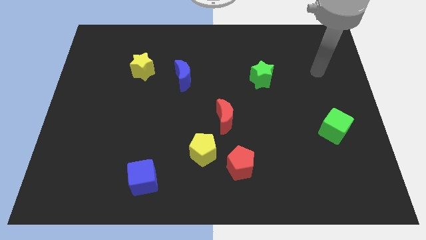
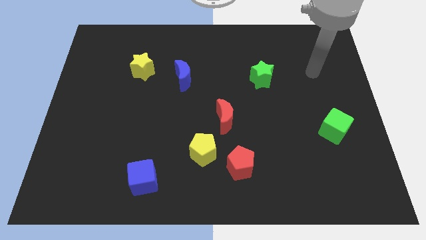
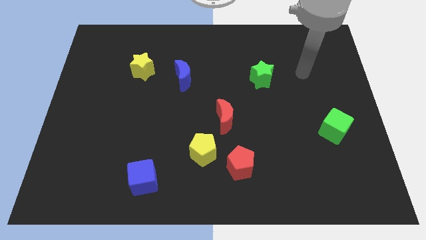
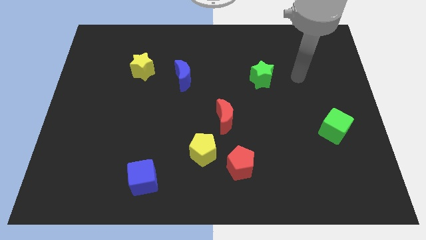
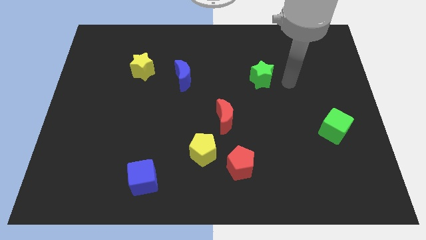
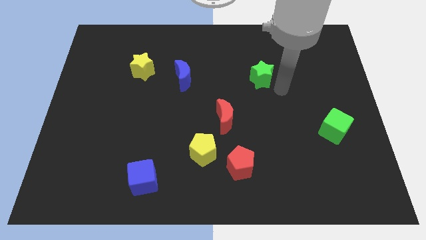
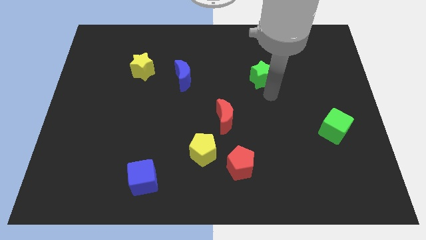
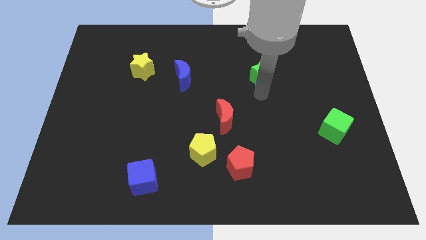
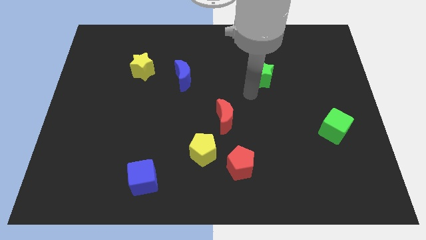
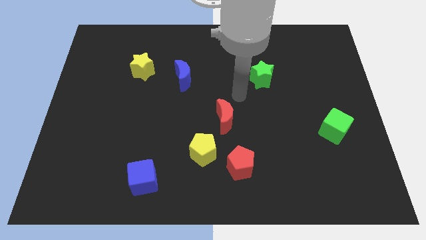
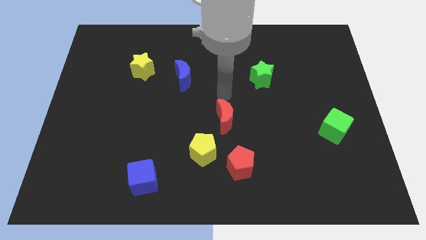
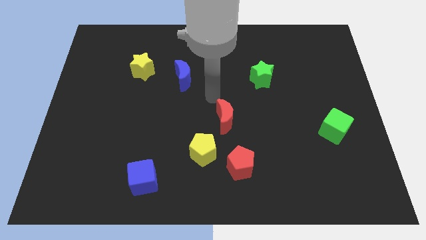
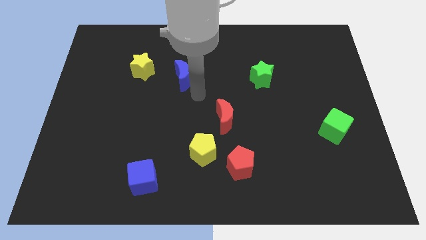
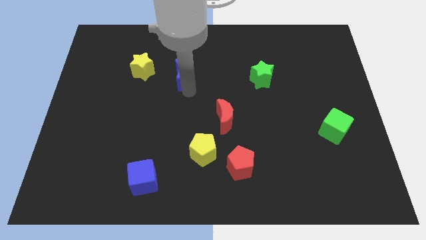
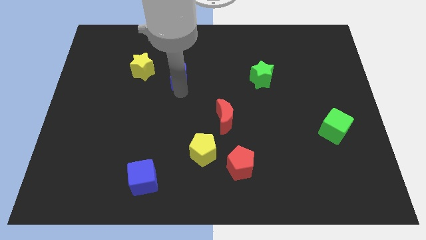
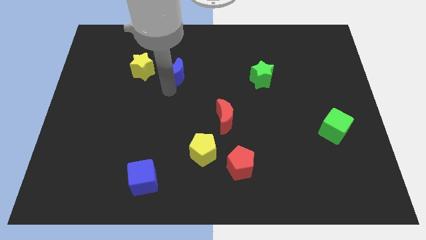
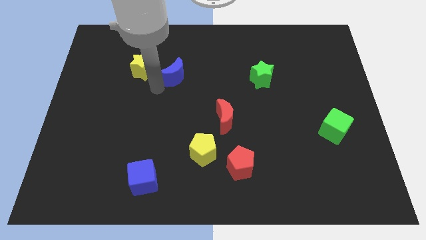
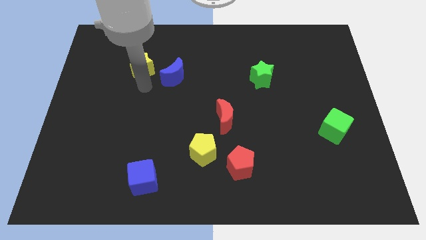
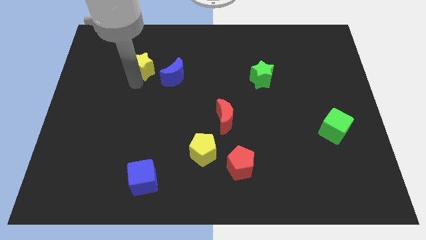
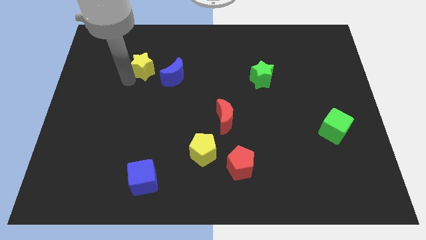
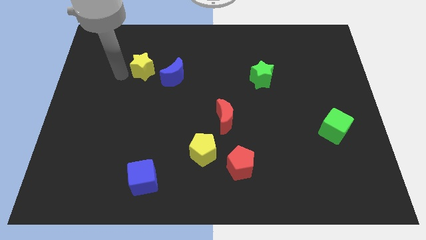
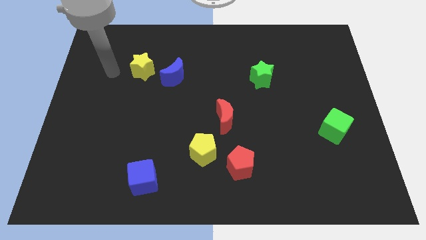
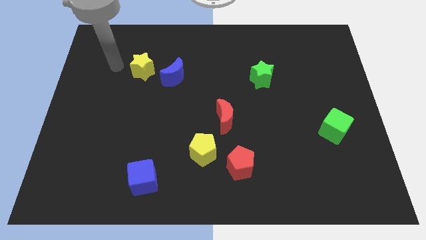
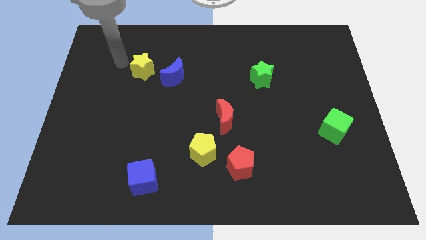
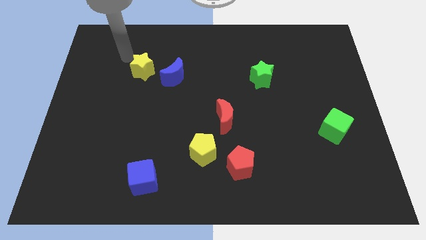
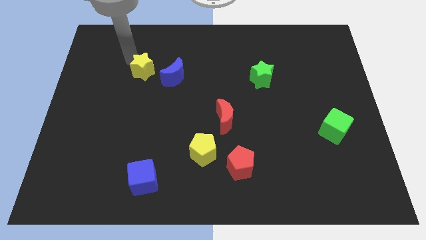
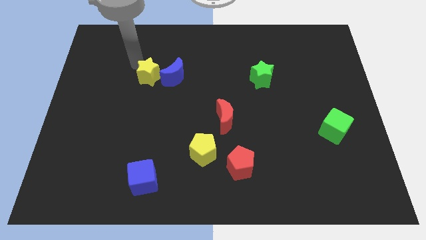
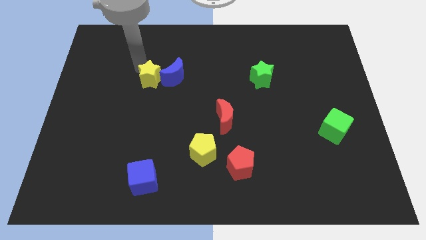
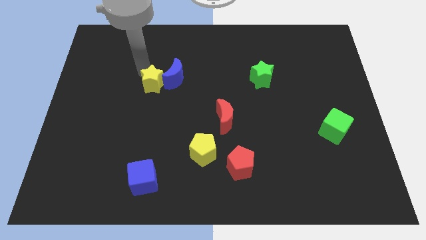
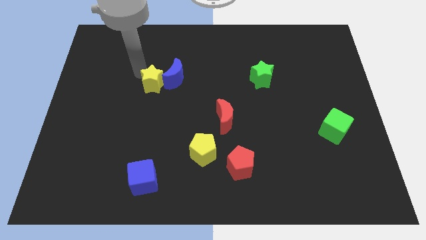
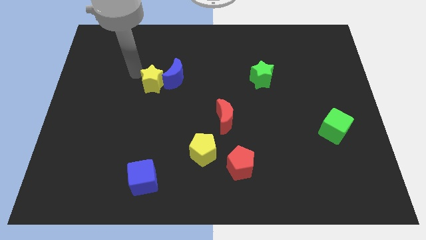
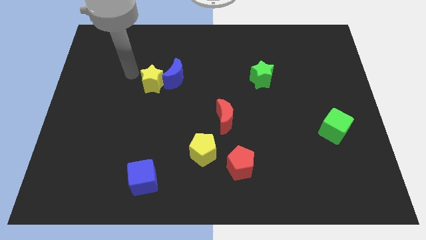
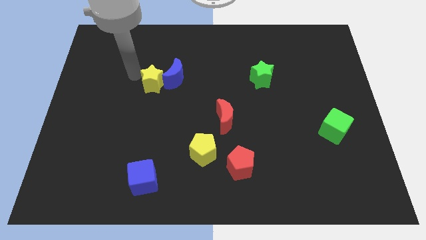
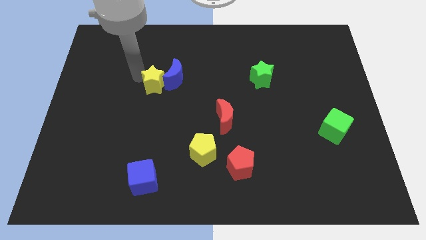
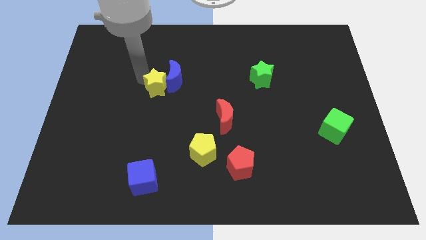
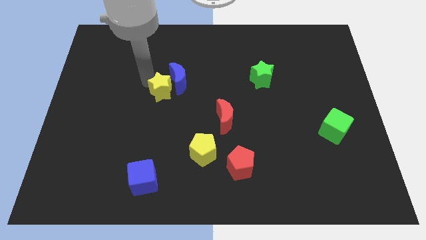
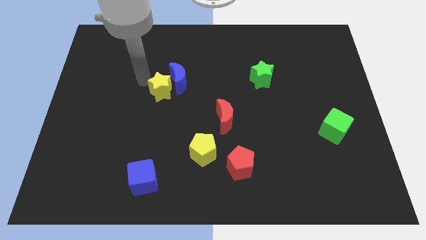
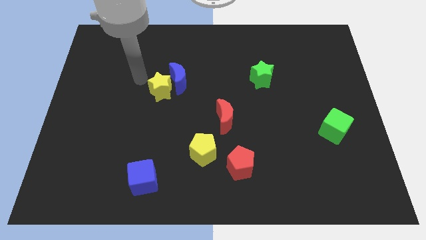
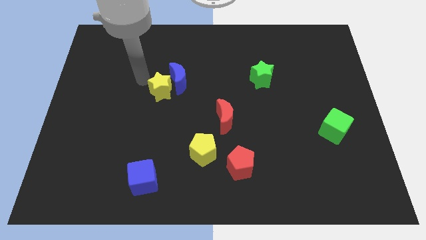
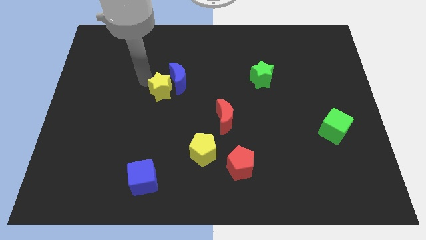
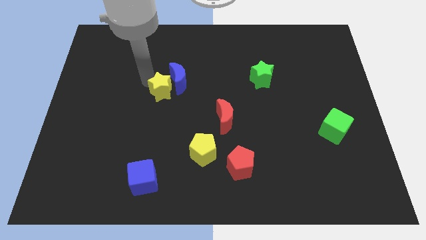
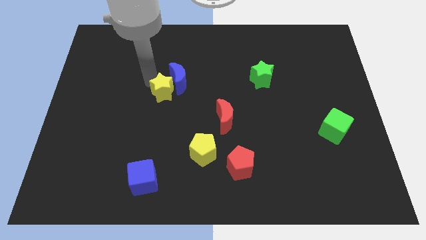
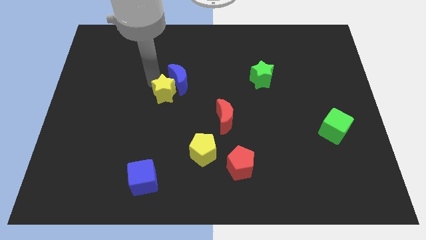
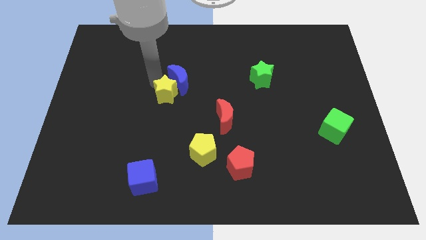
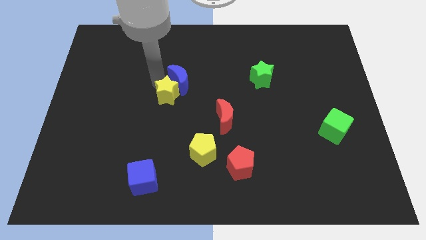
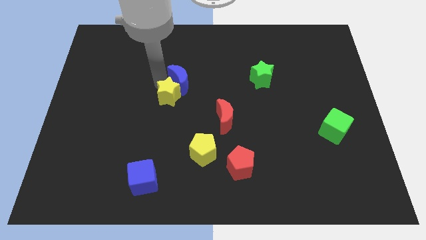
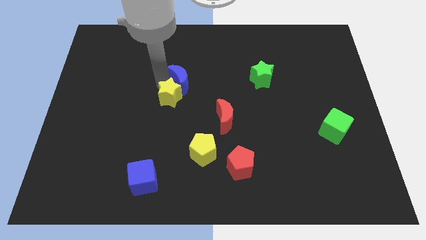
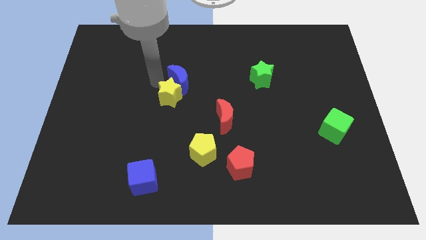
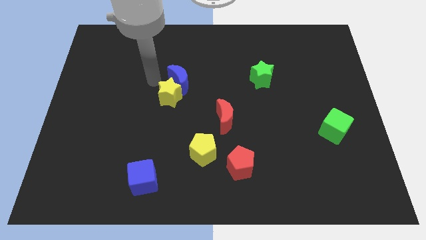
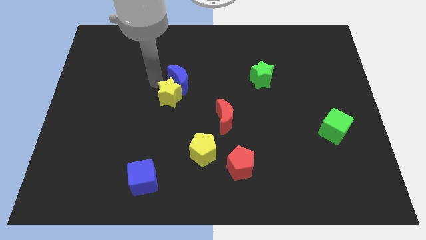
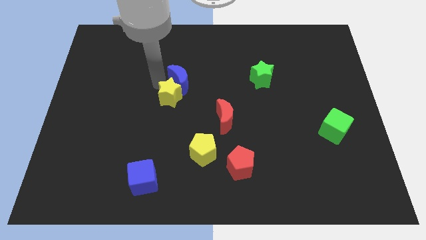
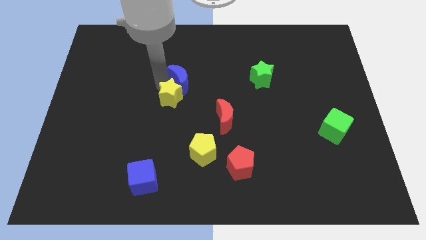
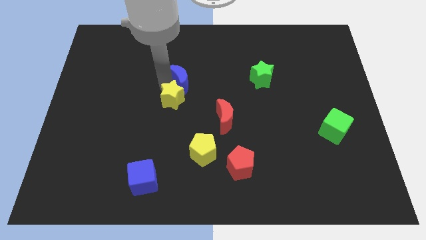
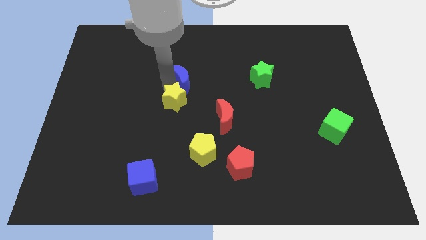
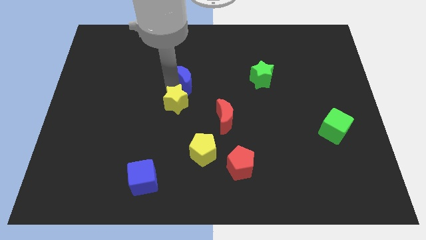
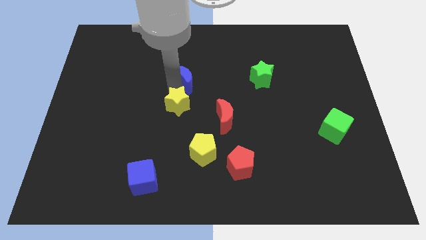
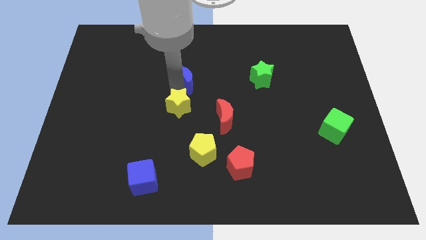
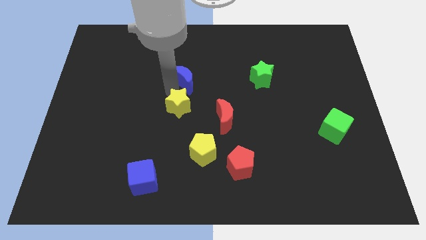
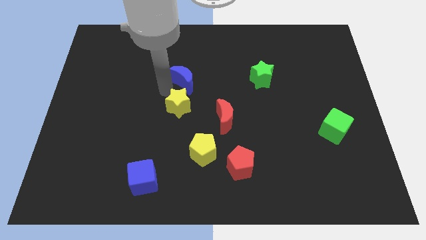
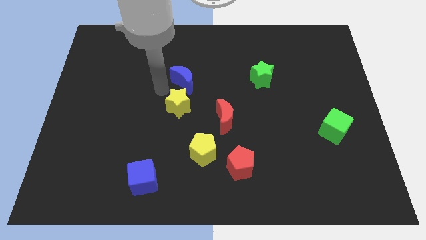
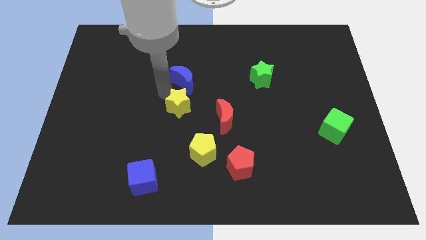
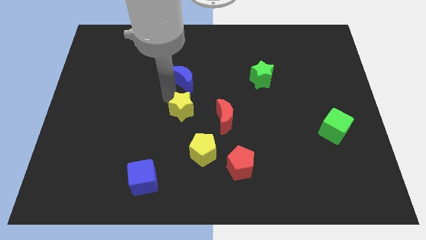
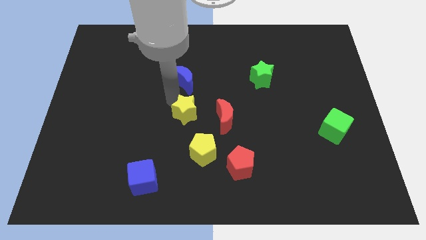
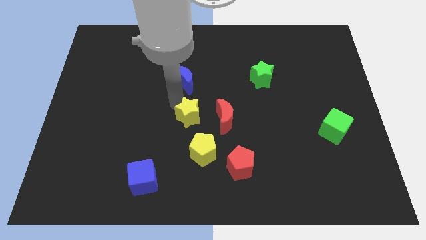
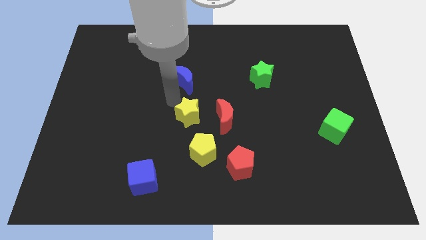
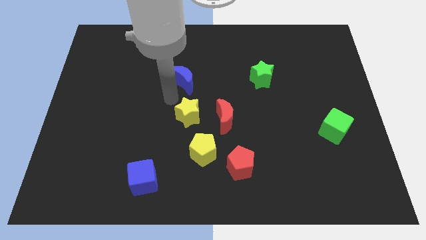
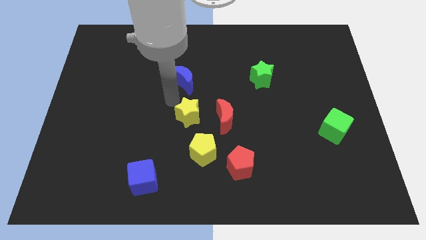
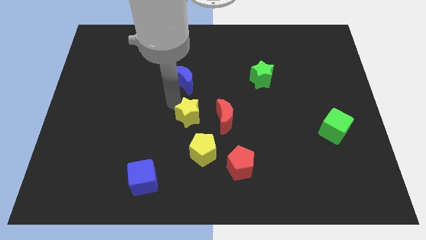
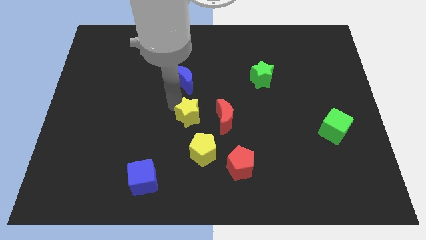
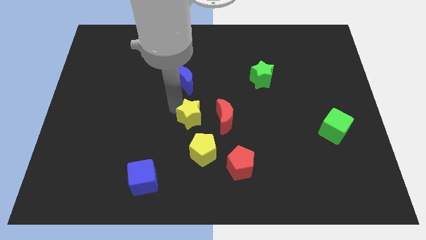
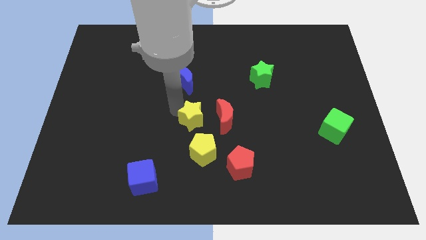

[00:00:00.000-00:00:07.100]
slide the yellow star downwards and right

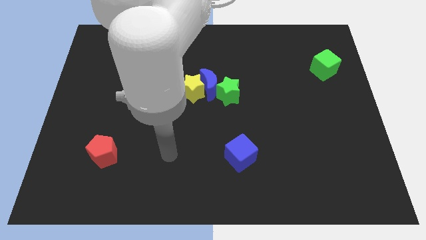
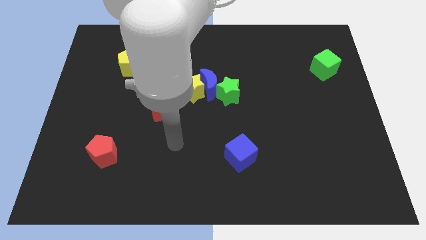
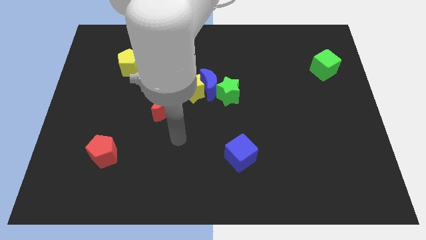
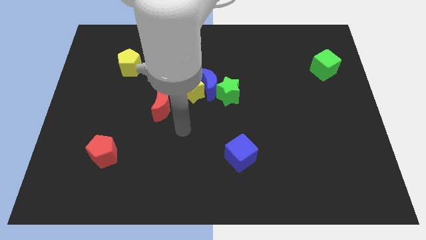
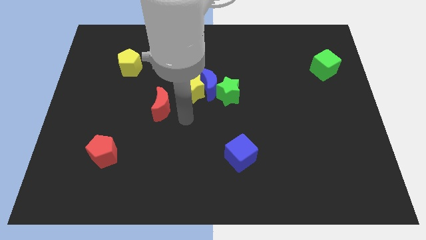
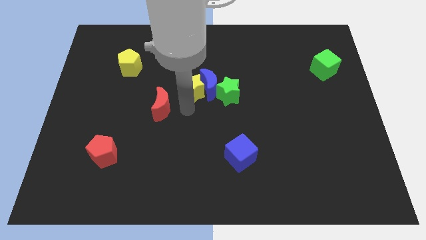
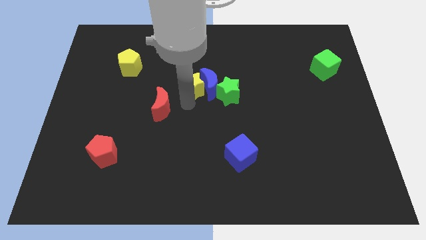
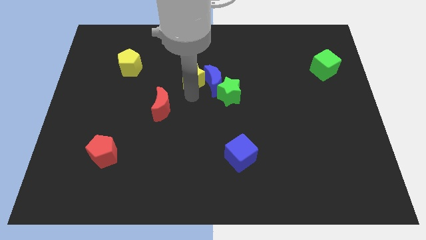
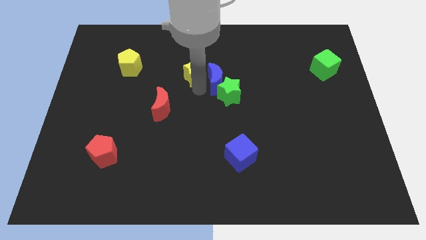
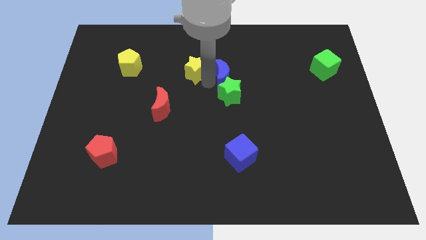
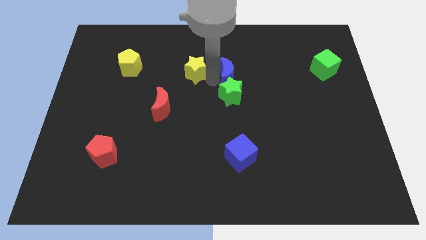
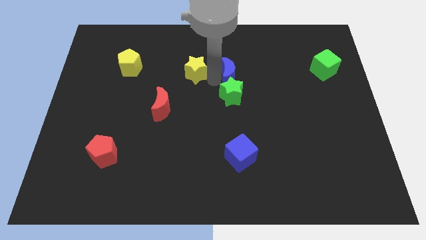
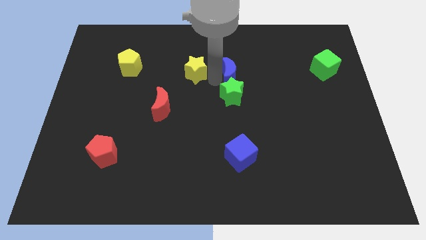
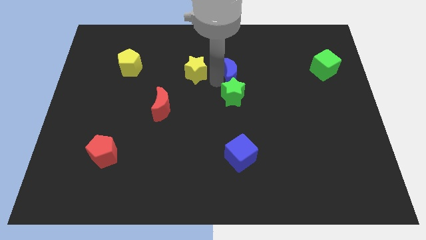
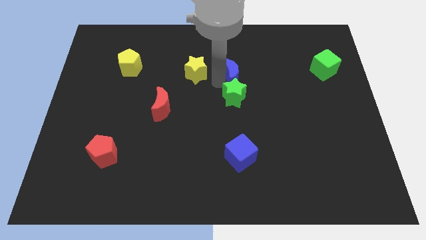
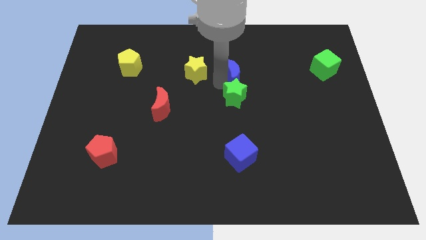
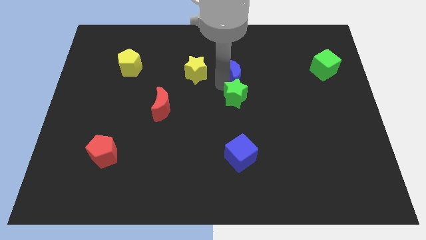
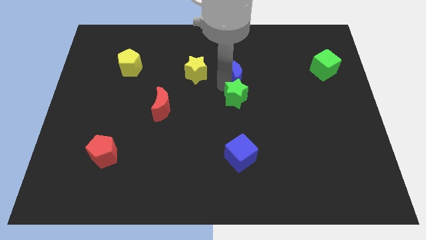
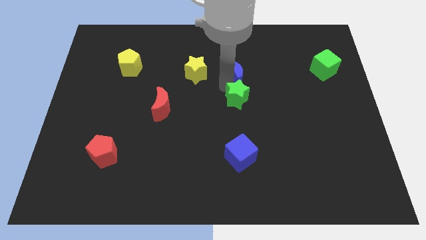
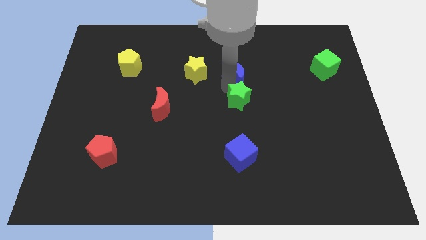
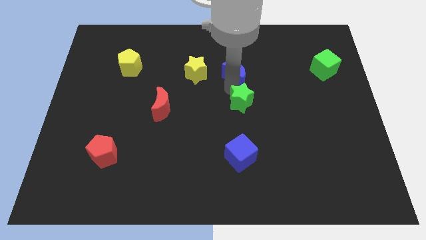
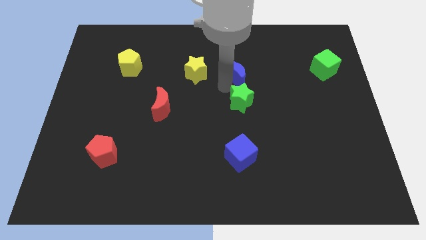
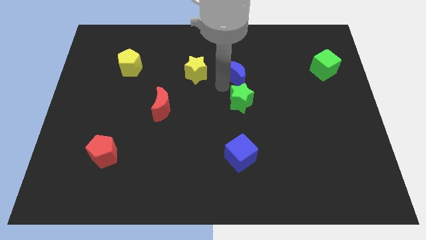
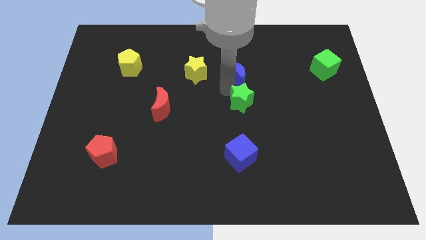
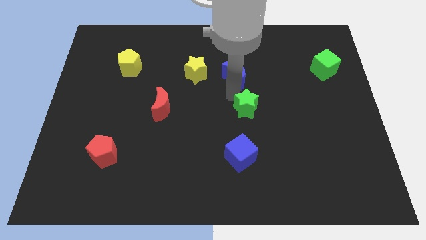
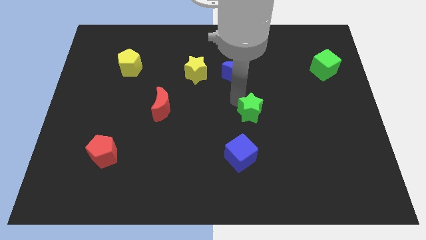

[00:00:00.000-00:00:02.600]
slightly slide the green star down and then right
